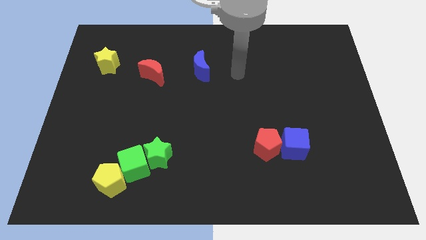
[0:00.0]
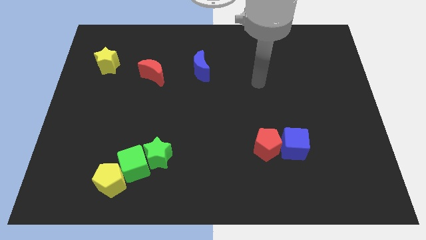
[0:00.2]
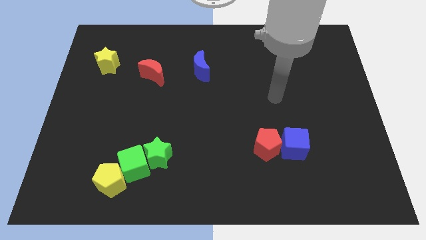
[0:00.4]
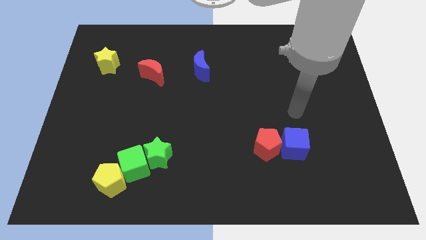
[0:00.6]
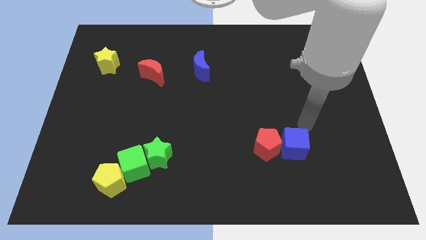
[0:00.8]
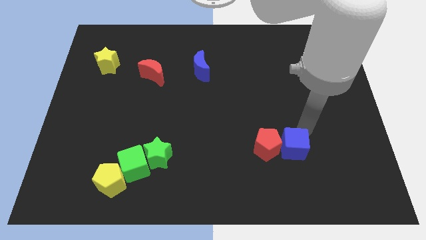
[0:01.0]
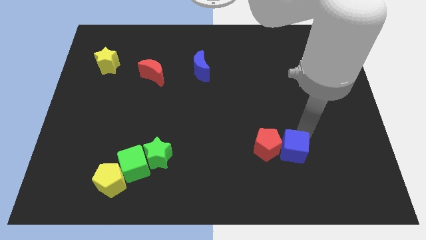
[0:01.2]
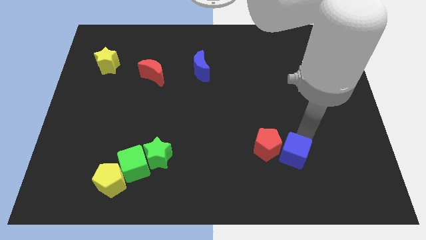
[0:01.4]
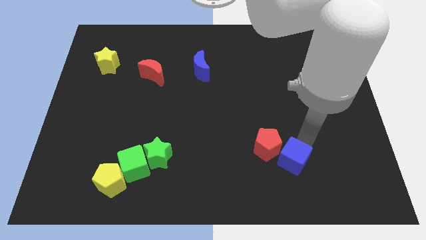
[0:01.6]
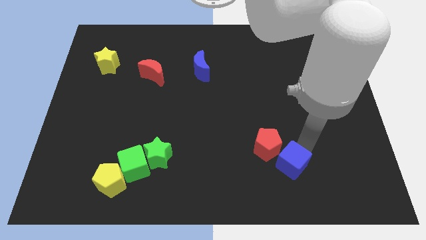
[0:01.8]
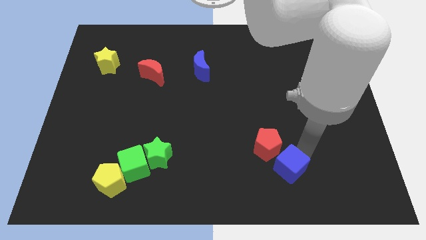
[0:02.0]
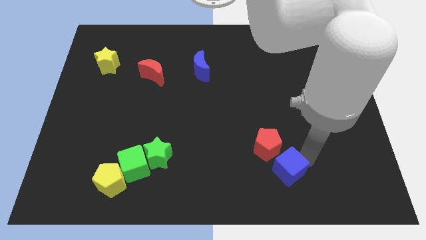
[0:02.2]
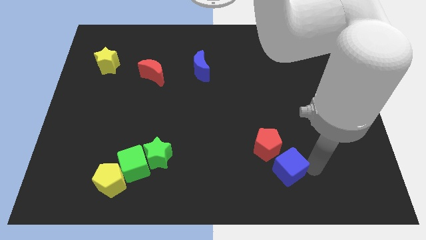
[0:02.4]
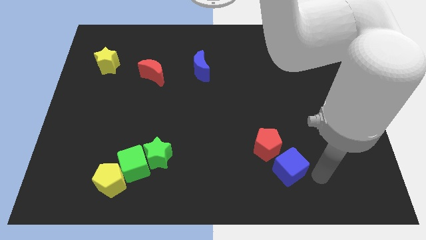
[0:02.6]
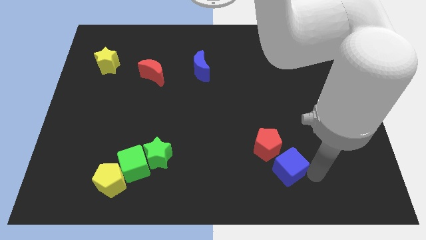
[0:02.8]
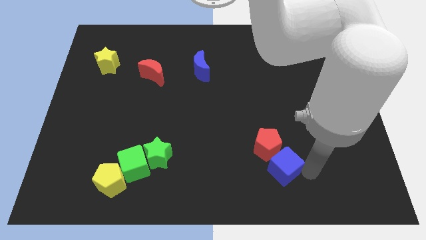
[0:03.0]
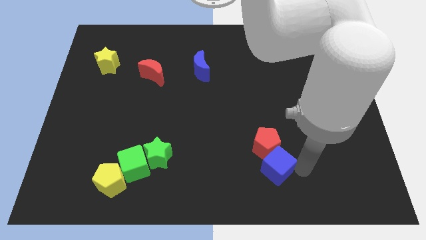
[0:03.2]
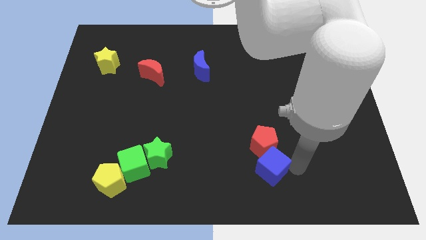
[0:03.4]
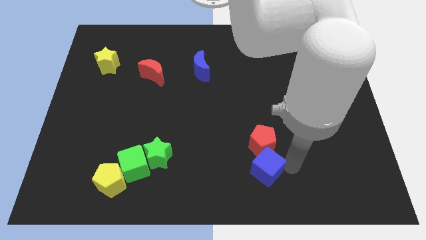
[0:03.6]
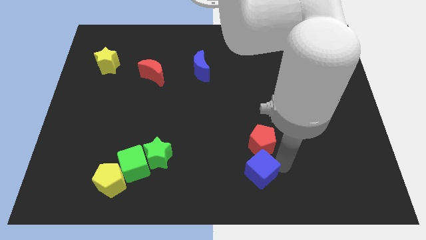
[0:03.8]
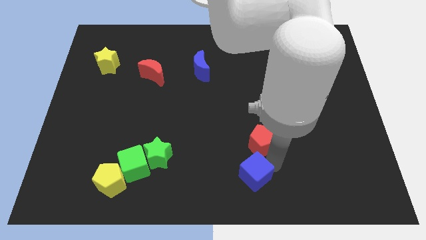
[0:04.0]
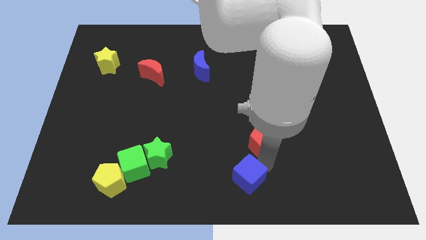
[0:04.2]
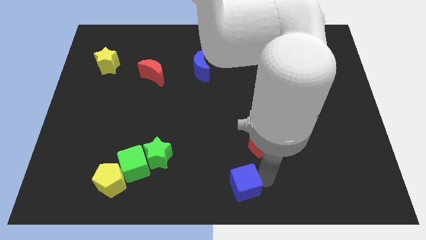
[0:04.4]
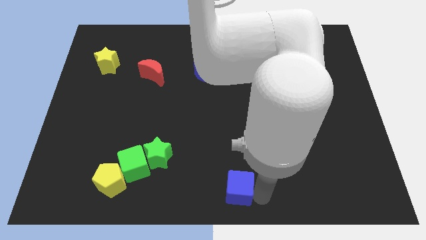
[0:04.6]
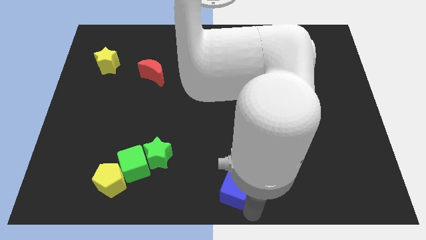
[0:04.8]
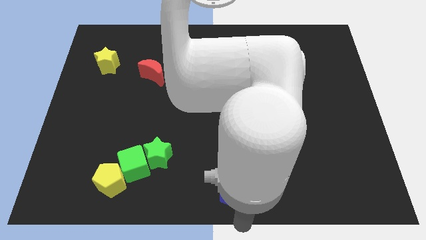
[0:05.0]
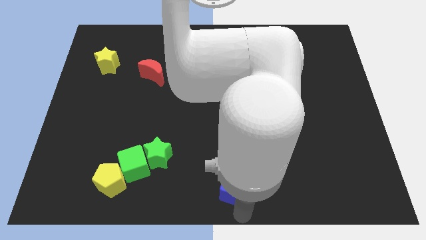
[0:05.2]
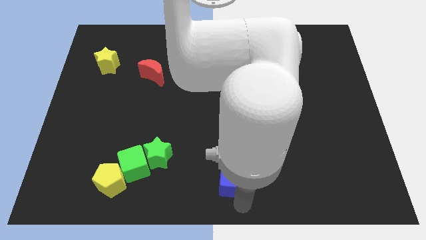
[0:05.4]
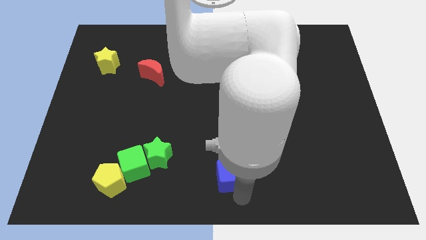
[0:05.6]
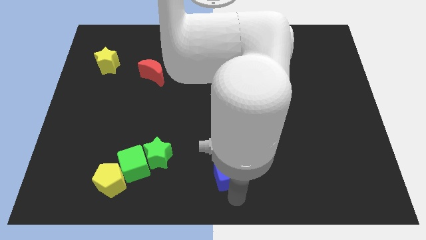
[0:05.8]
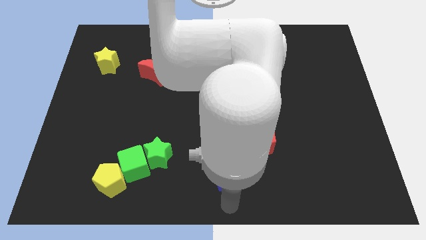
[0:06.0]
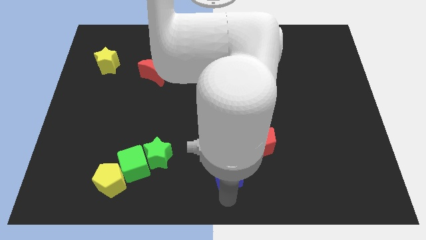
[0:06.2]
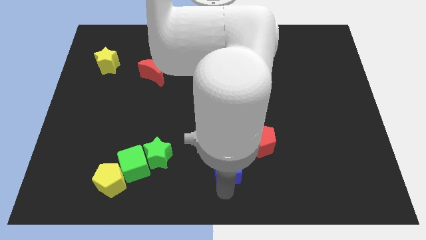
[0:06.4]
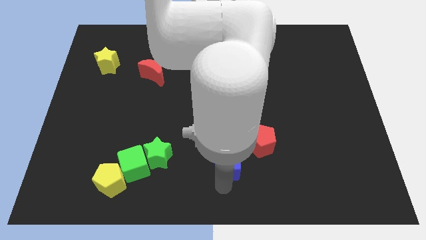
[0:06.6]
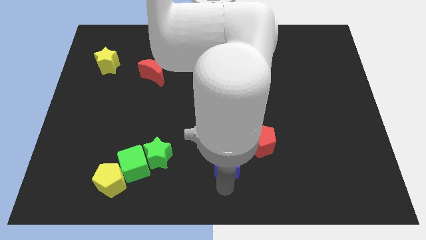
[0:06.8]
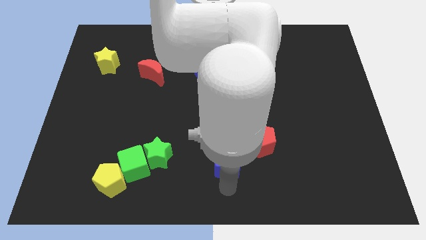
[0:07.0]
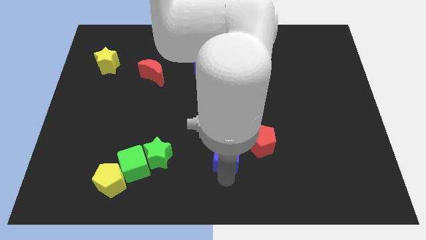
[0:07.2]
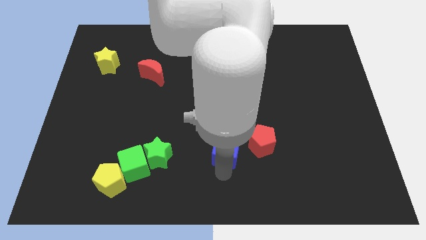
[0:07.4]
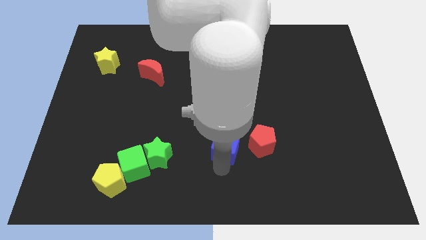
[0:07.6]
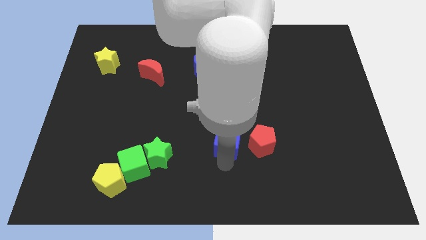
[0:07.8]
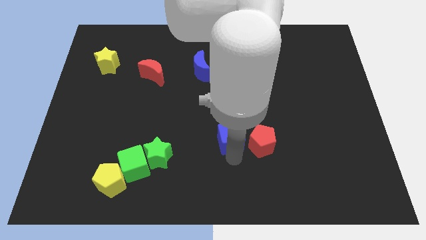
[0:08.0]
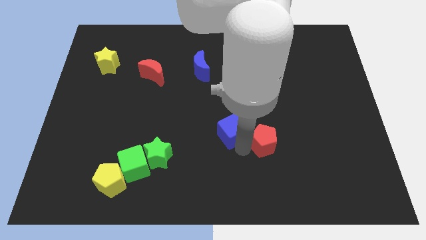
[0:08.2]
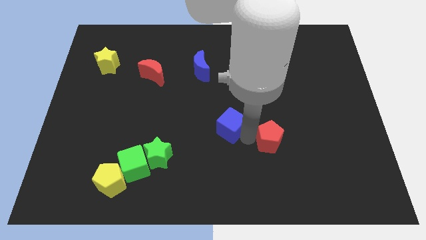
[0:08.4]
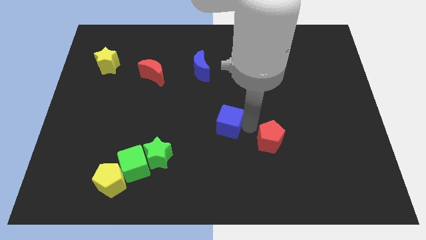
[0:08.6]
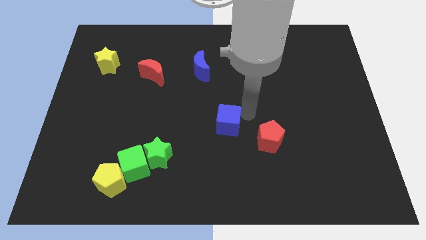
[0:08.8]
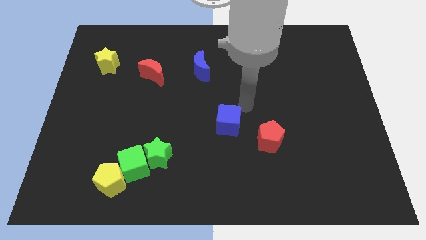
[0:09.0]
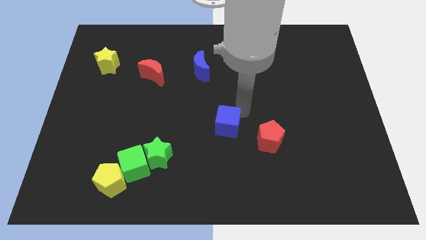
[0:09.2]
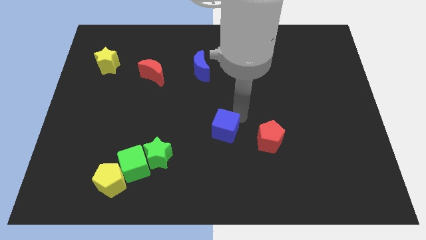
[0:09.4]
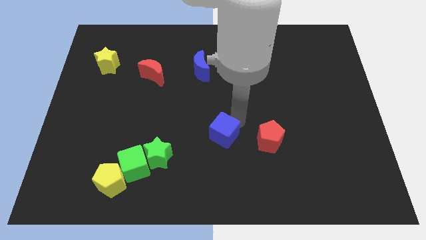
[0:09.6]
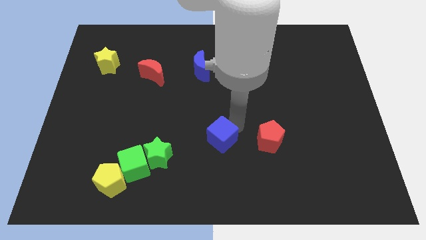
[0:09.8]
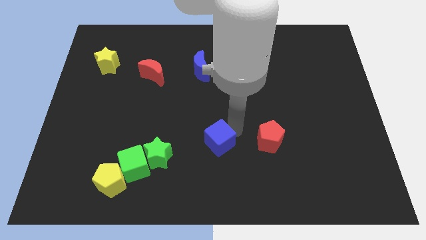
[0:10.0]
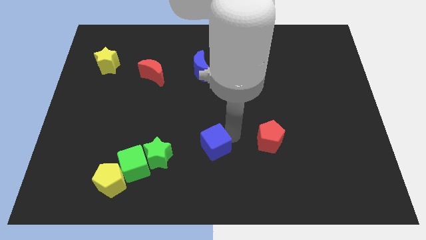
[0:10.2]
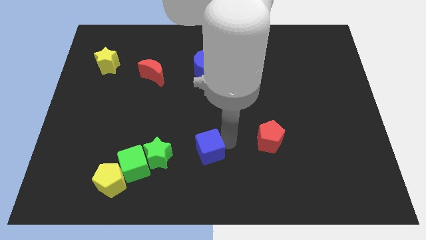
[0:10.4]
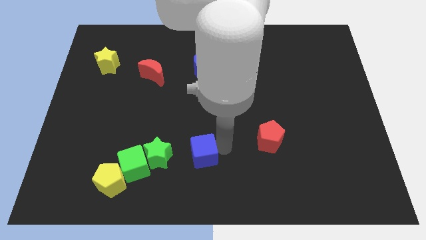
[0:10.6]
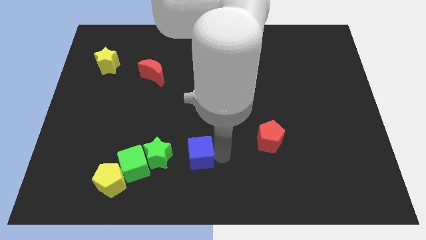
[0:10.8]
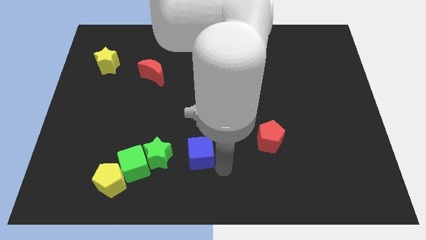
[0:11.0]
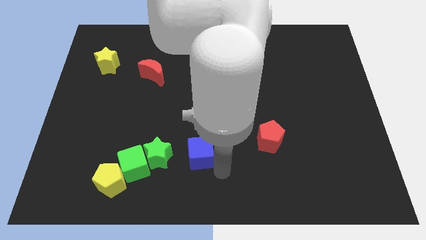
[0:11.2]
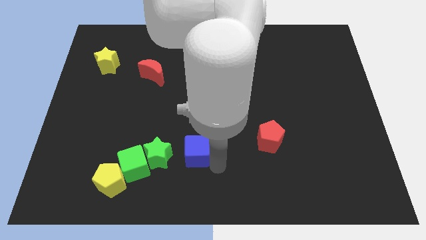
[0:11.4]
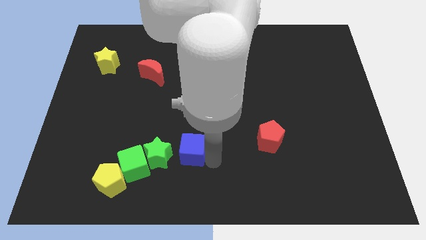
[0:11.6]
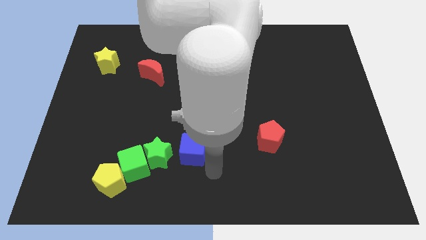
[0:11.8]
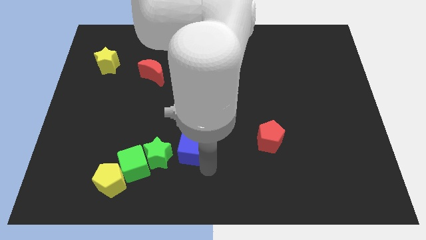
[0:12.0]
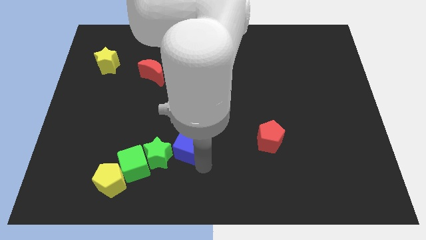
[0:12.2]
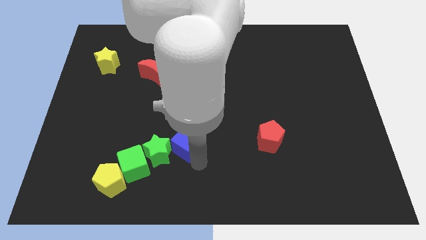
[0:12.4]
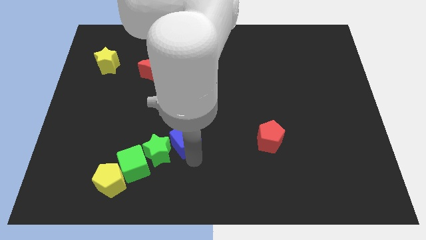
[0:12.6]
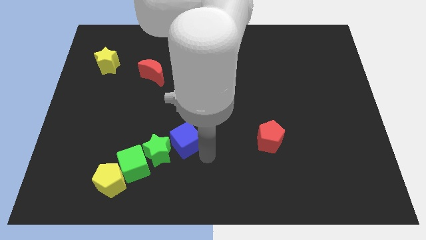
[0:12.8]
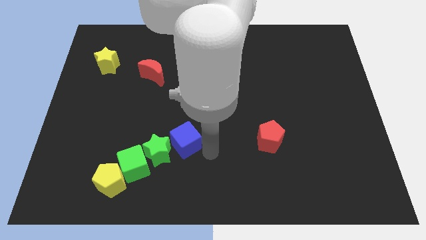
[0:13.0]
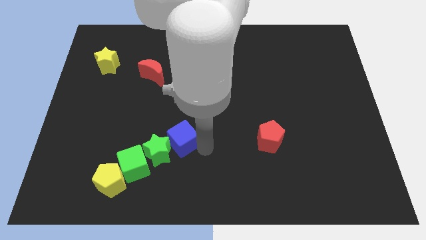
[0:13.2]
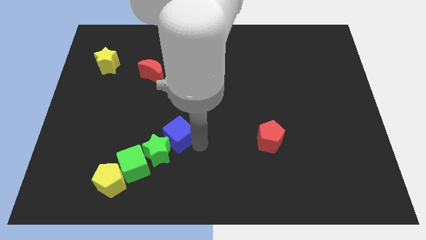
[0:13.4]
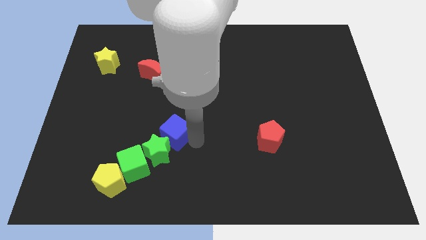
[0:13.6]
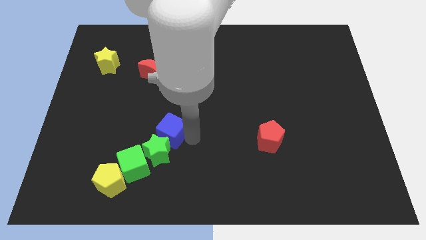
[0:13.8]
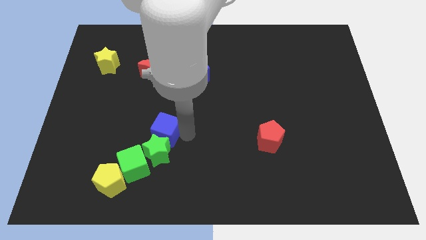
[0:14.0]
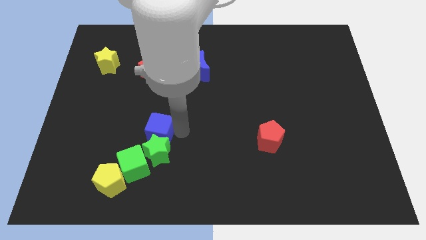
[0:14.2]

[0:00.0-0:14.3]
push the blue cube to the top of the green cube
